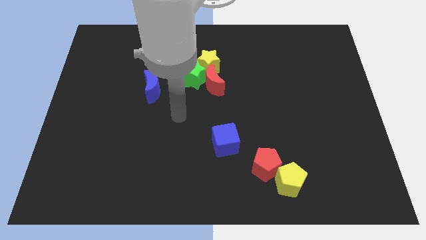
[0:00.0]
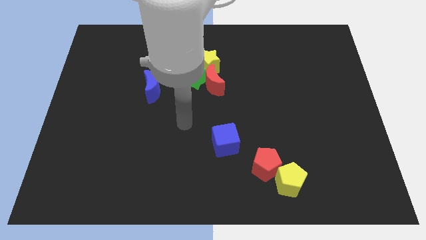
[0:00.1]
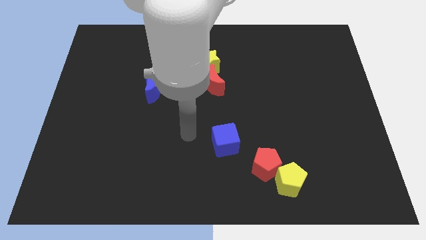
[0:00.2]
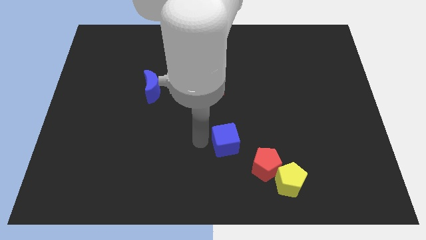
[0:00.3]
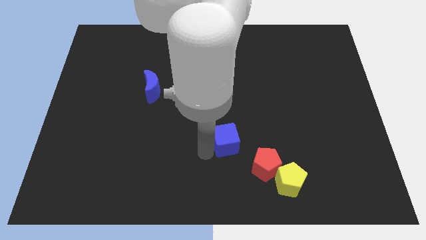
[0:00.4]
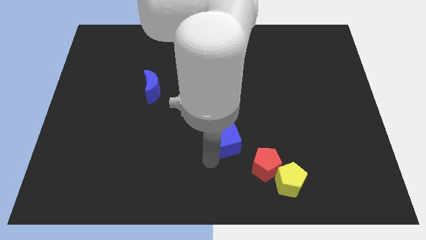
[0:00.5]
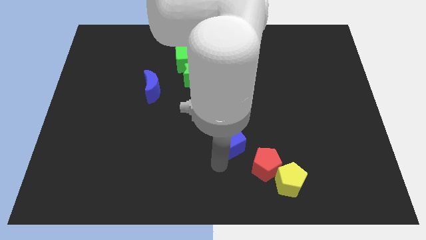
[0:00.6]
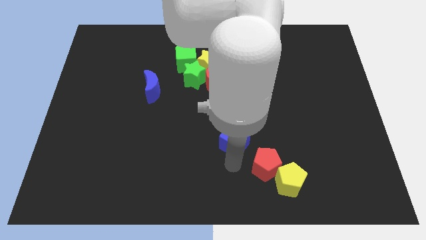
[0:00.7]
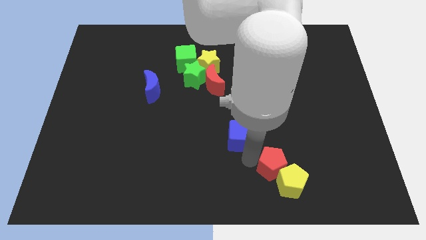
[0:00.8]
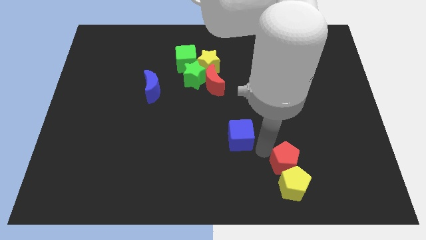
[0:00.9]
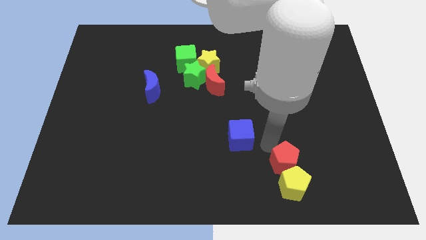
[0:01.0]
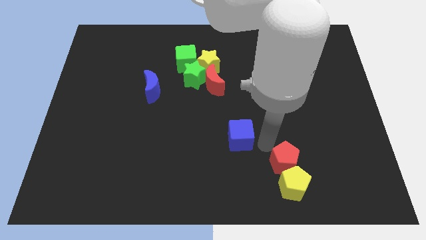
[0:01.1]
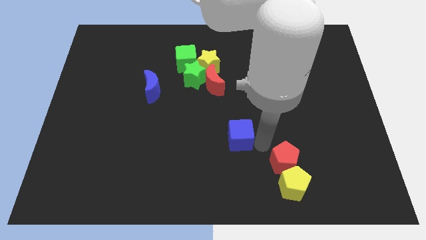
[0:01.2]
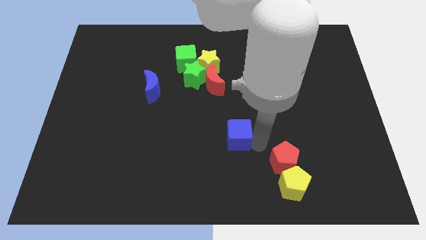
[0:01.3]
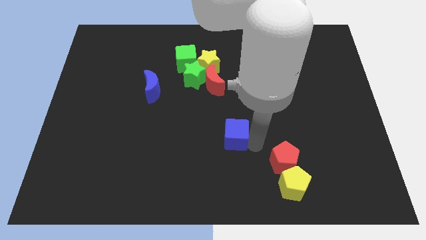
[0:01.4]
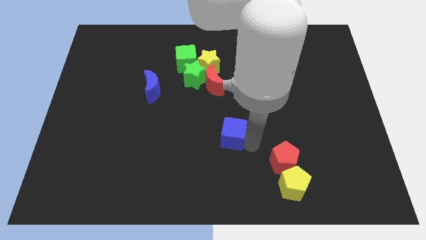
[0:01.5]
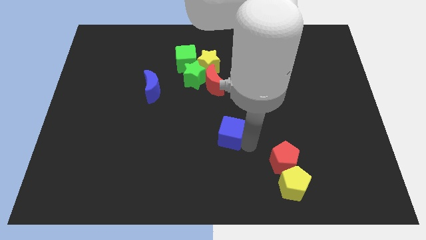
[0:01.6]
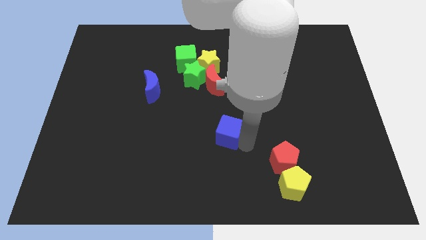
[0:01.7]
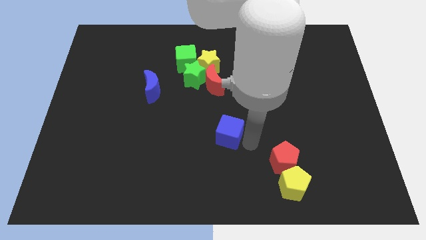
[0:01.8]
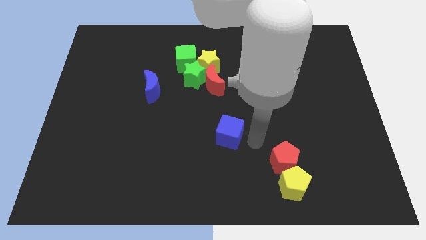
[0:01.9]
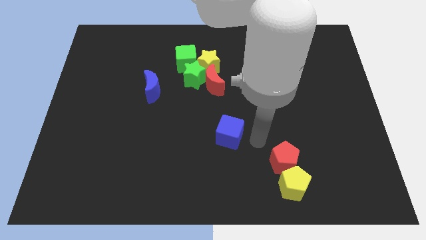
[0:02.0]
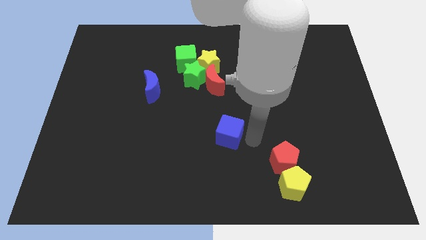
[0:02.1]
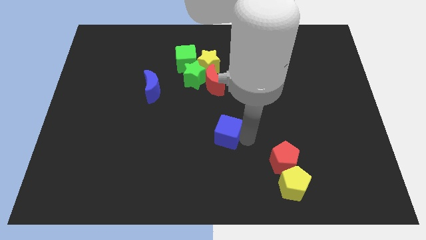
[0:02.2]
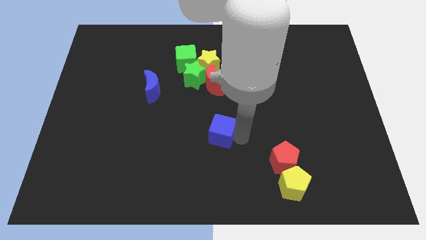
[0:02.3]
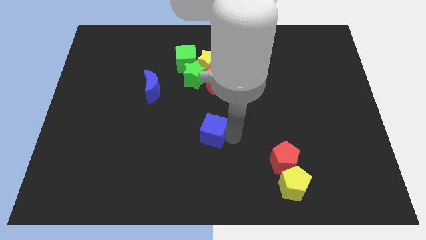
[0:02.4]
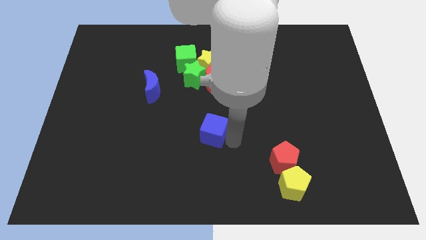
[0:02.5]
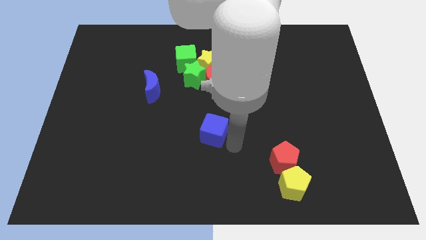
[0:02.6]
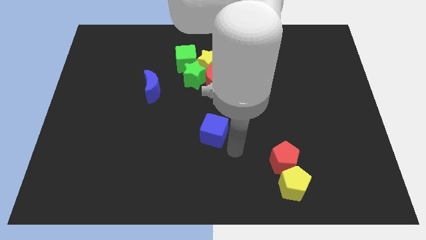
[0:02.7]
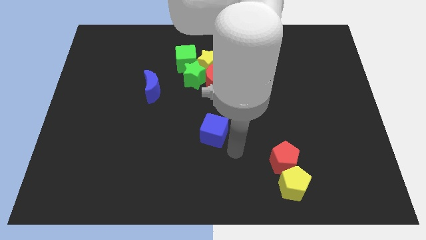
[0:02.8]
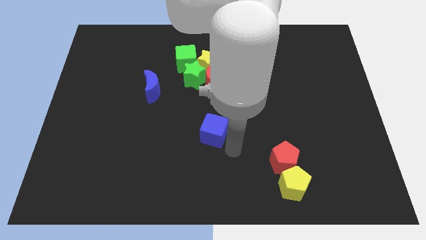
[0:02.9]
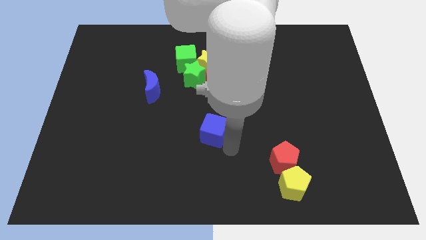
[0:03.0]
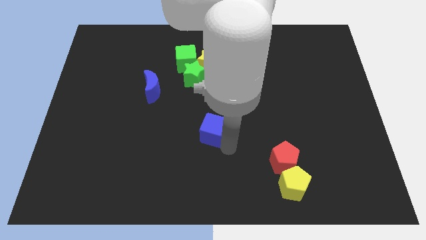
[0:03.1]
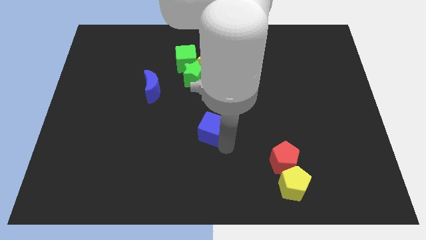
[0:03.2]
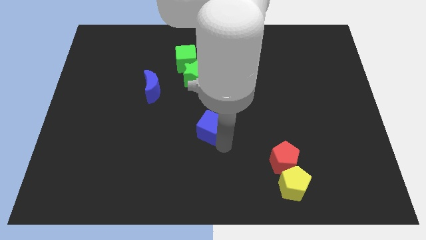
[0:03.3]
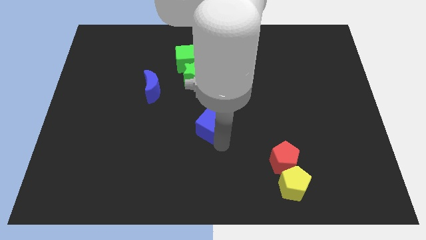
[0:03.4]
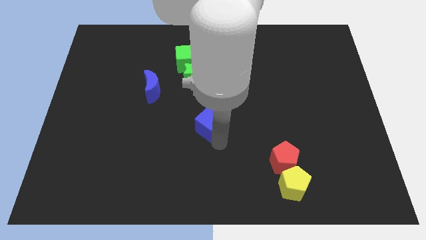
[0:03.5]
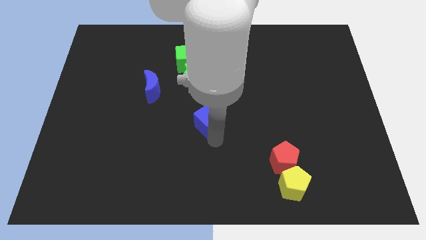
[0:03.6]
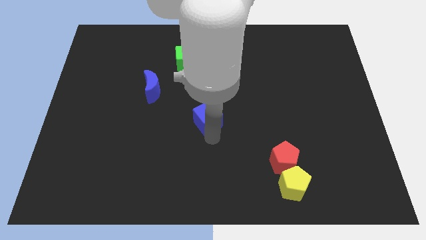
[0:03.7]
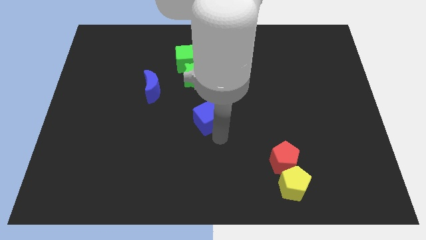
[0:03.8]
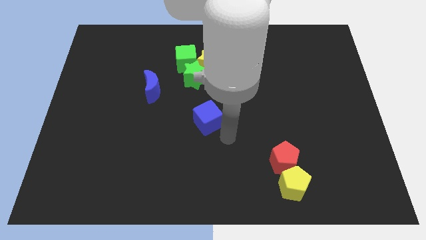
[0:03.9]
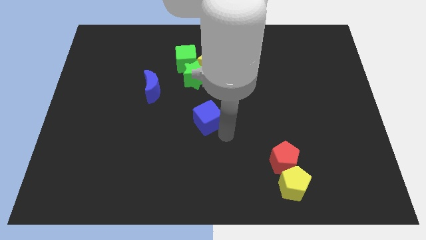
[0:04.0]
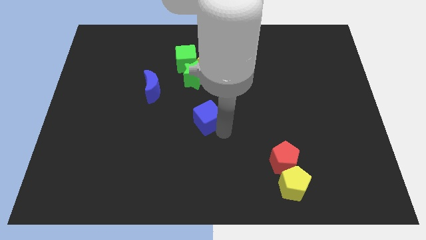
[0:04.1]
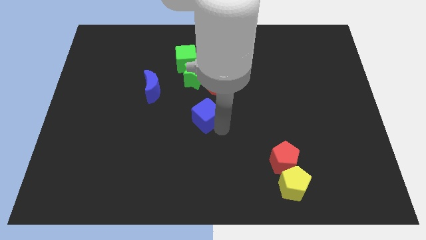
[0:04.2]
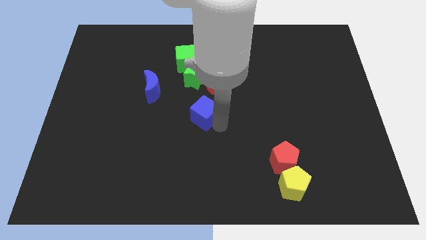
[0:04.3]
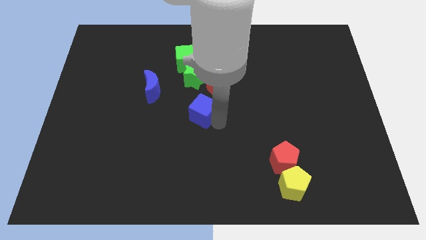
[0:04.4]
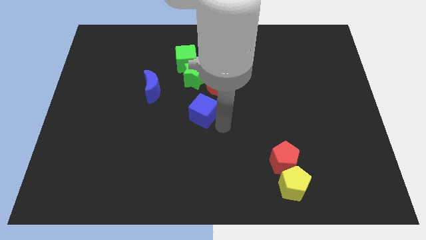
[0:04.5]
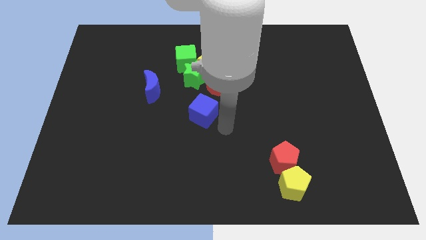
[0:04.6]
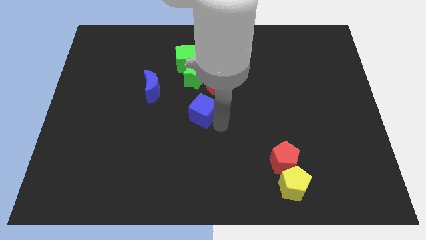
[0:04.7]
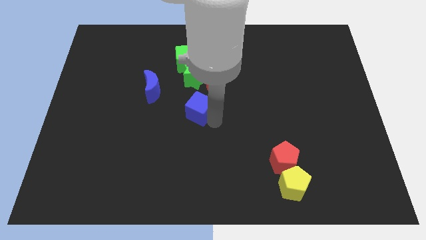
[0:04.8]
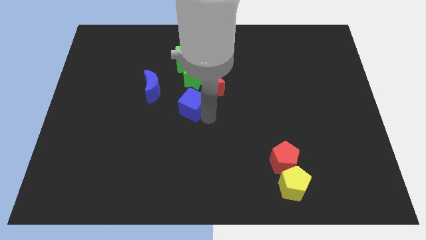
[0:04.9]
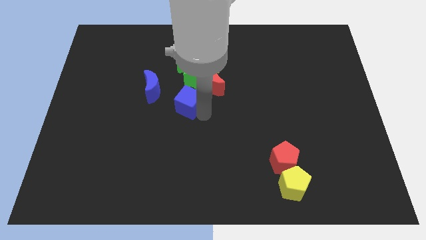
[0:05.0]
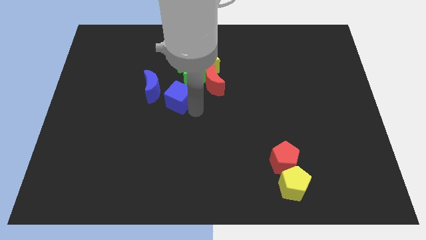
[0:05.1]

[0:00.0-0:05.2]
move the blue cube to the left side of the red moon

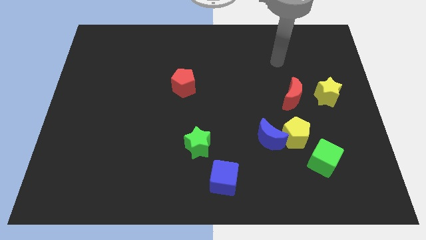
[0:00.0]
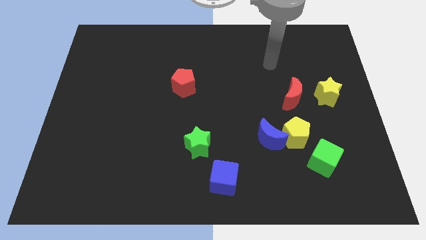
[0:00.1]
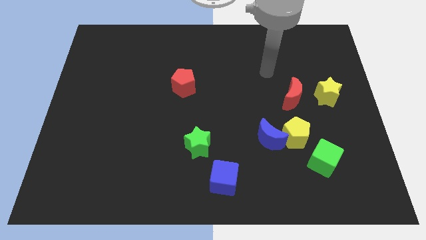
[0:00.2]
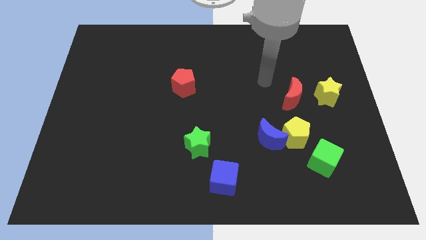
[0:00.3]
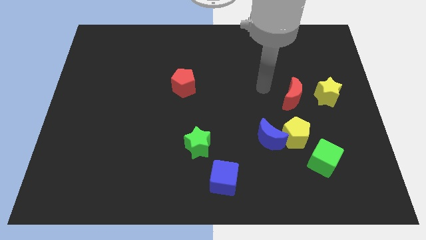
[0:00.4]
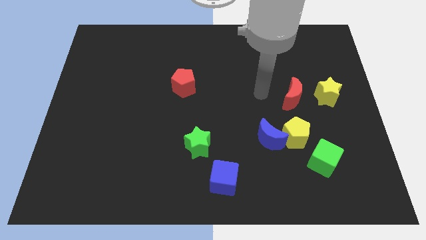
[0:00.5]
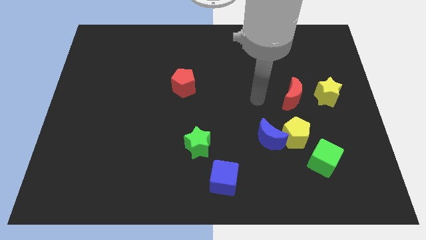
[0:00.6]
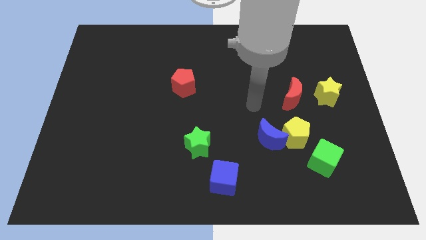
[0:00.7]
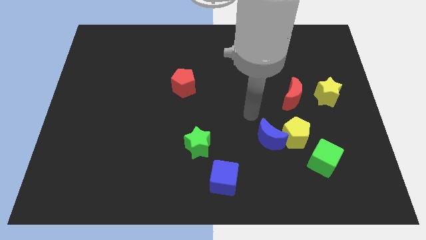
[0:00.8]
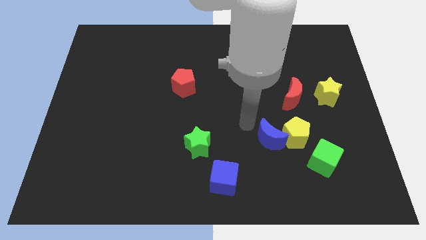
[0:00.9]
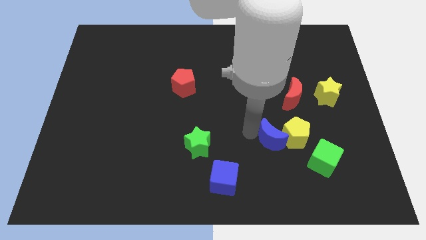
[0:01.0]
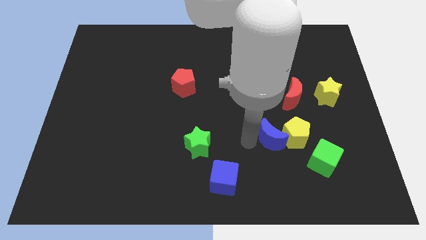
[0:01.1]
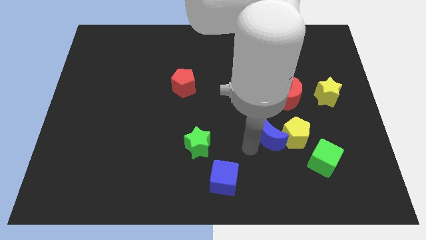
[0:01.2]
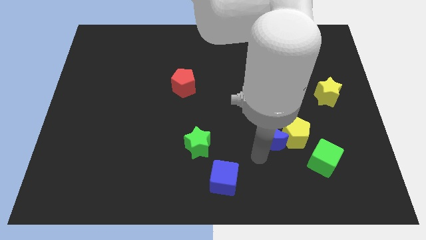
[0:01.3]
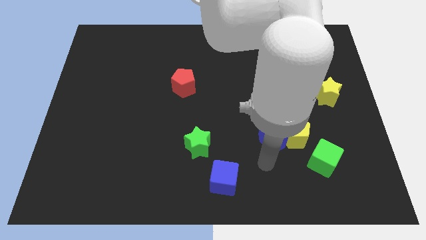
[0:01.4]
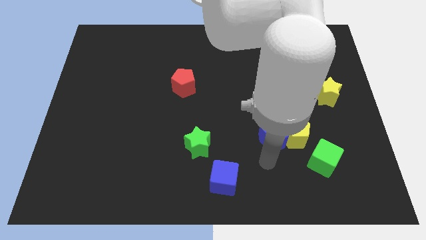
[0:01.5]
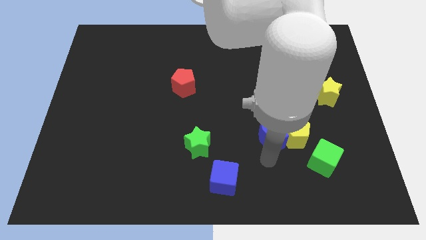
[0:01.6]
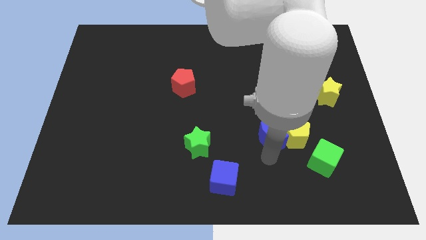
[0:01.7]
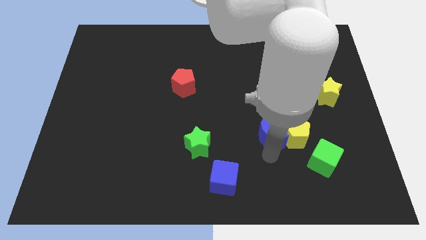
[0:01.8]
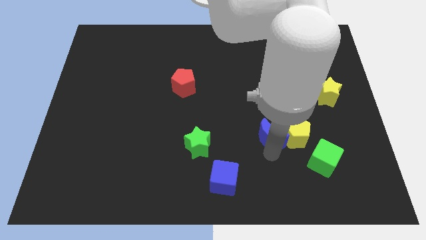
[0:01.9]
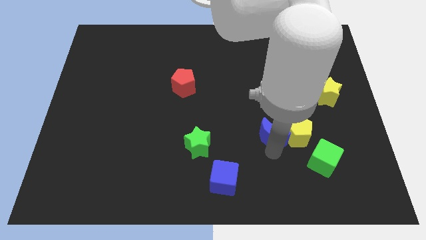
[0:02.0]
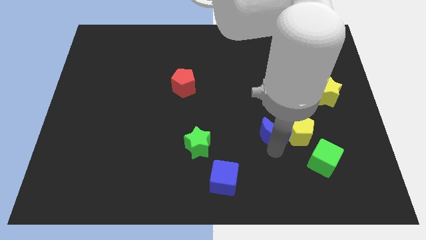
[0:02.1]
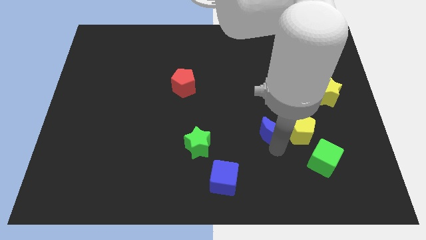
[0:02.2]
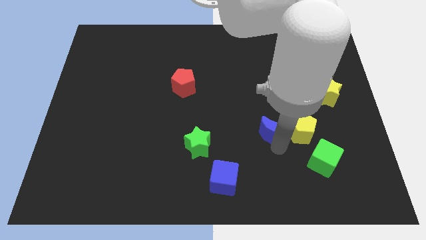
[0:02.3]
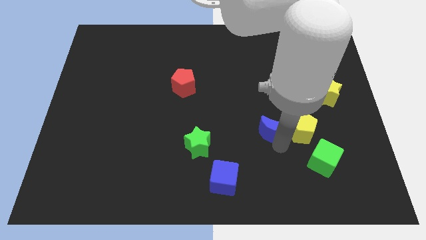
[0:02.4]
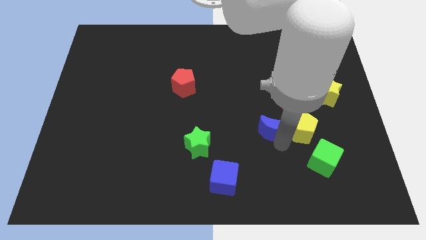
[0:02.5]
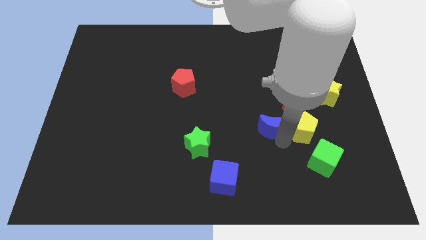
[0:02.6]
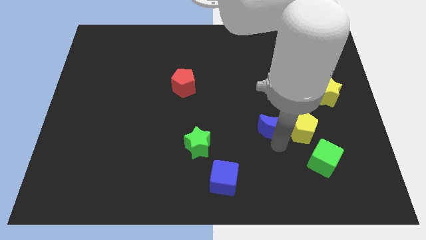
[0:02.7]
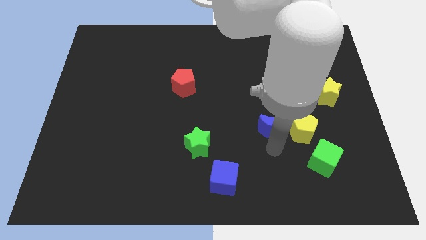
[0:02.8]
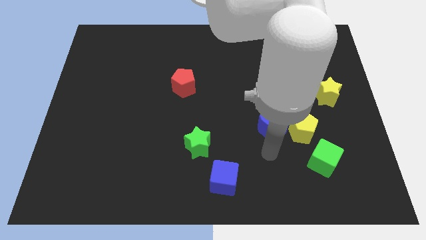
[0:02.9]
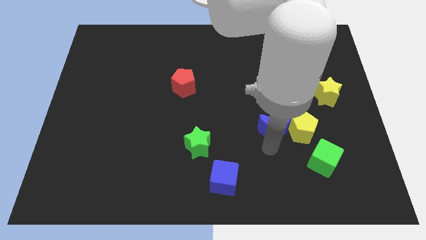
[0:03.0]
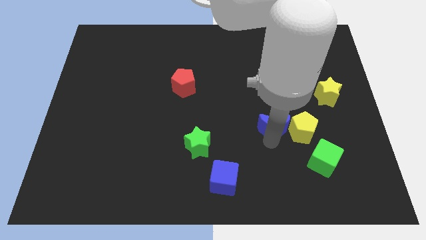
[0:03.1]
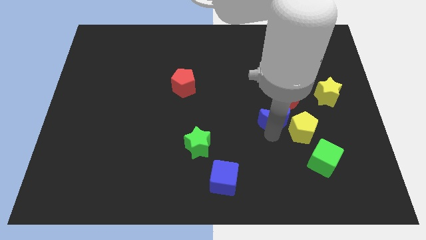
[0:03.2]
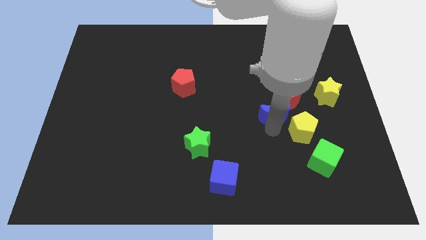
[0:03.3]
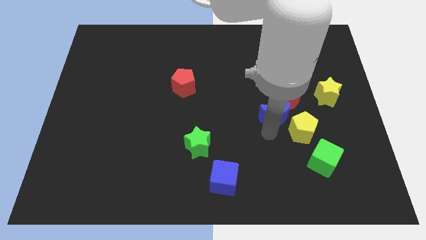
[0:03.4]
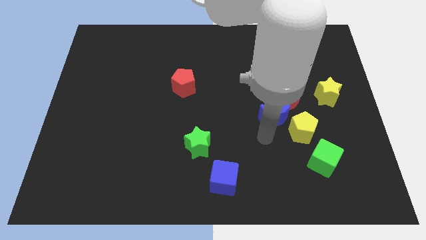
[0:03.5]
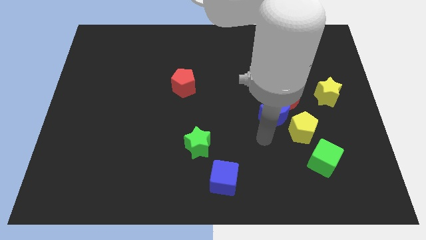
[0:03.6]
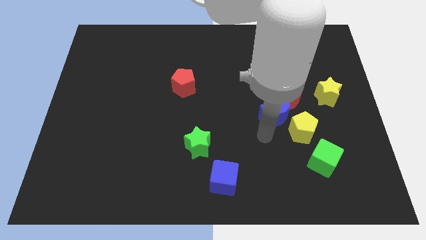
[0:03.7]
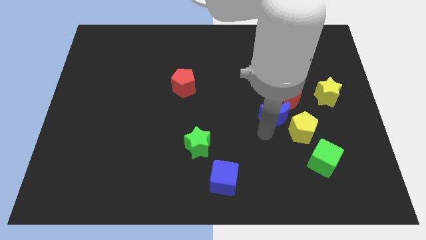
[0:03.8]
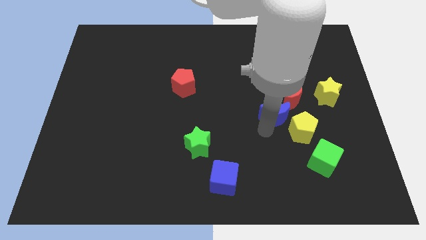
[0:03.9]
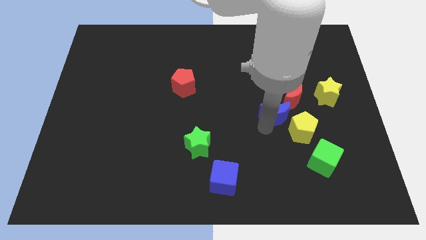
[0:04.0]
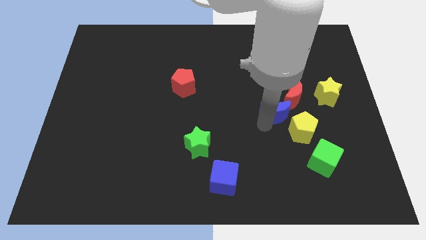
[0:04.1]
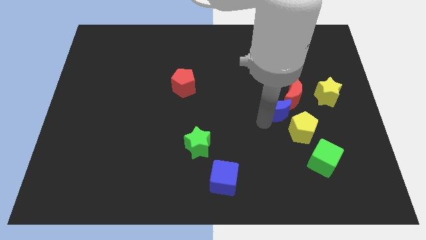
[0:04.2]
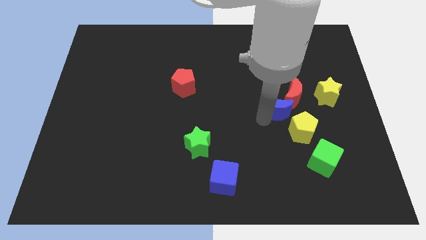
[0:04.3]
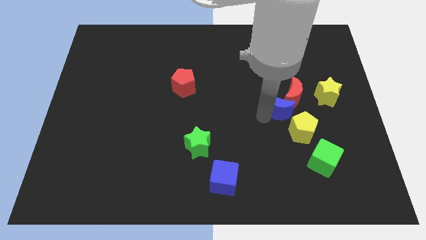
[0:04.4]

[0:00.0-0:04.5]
put the blue moon to the left side of the yellow star
